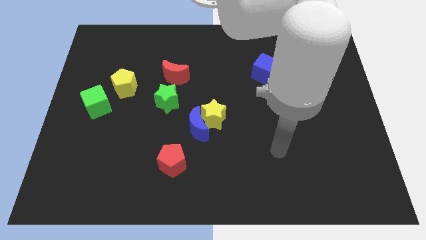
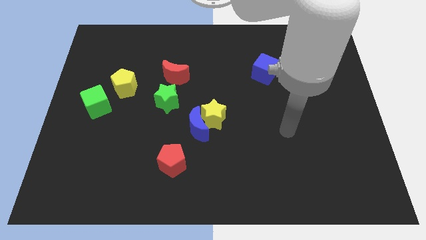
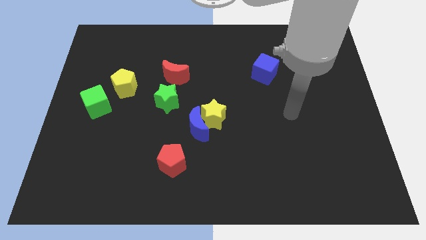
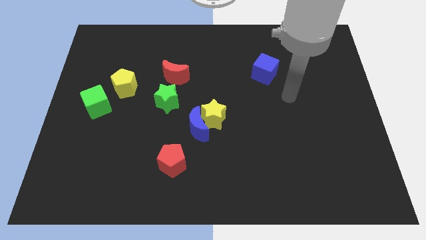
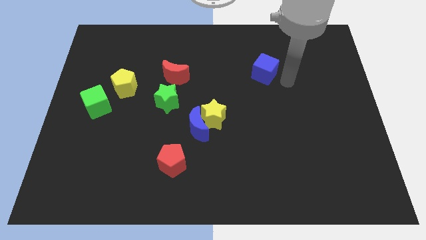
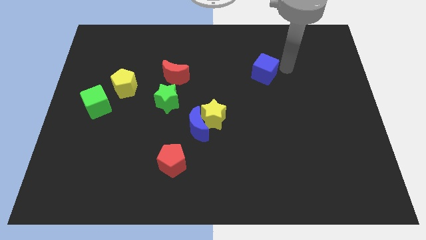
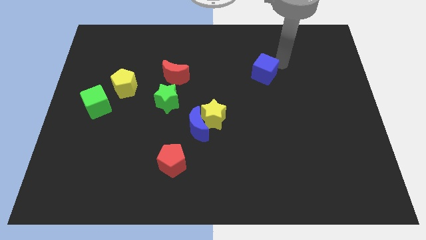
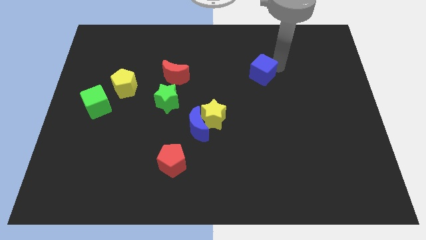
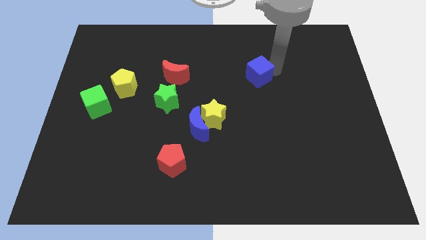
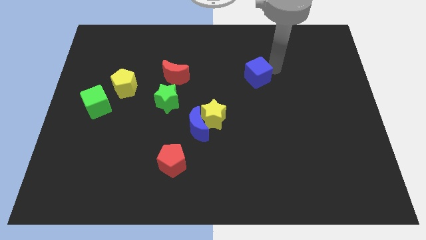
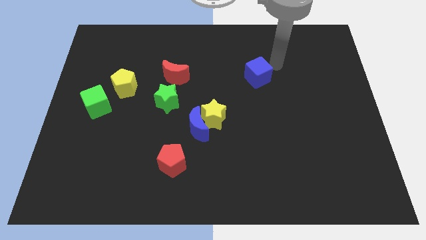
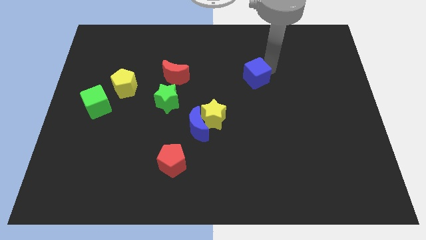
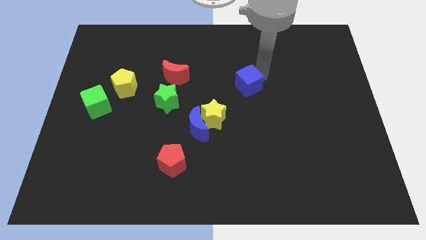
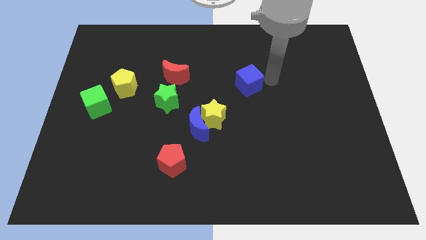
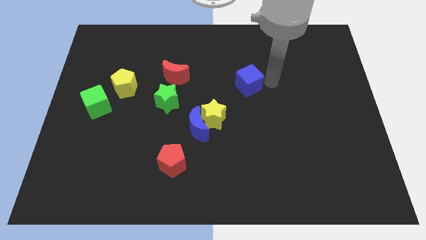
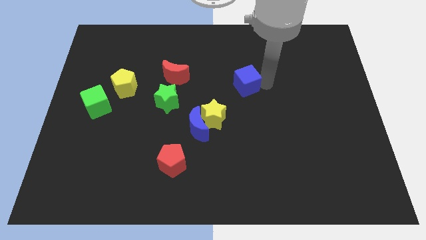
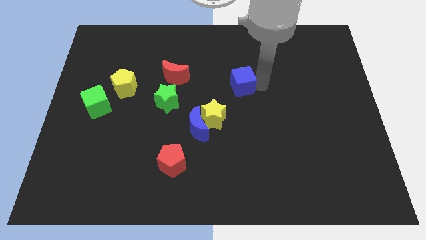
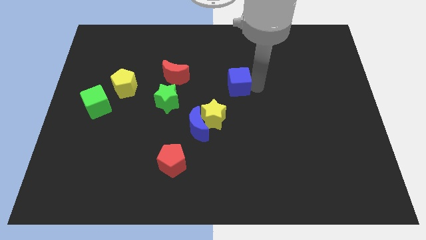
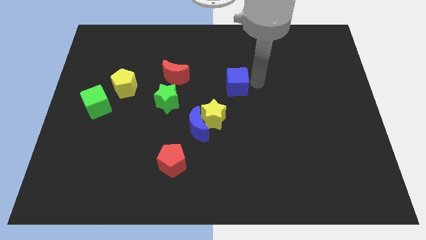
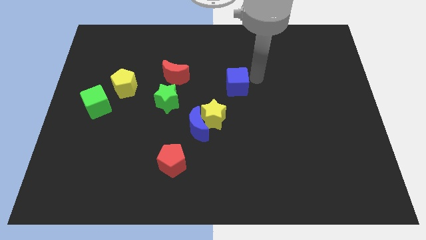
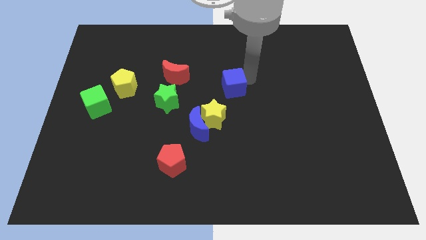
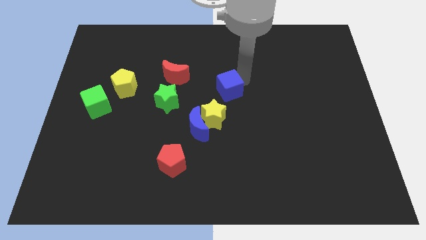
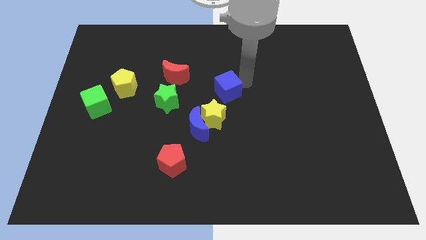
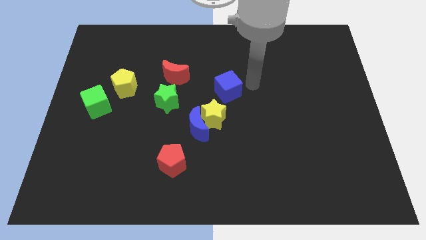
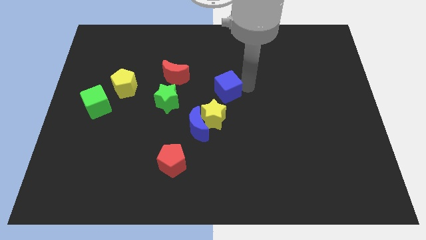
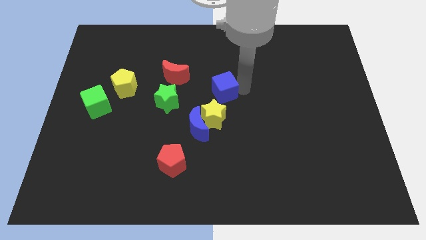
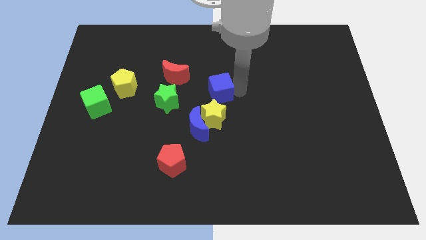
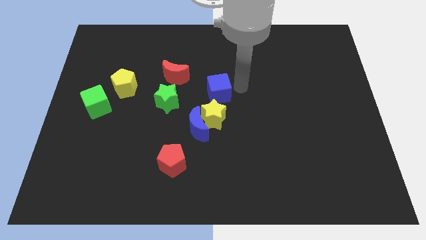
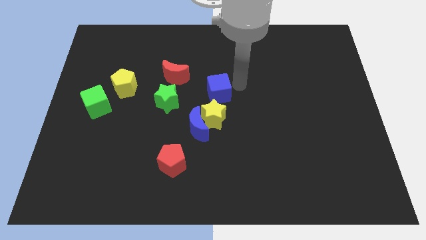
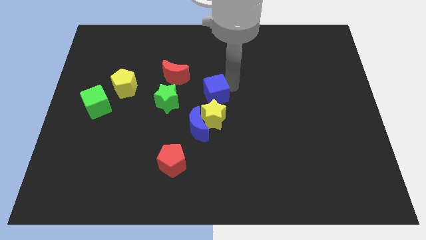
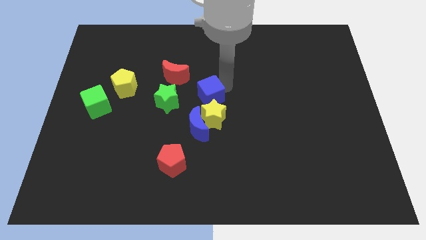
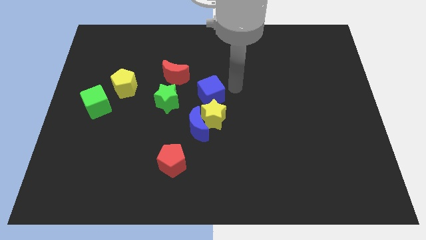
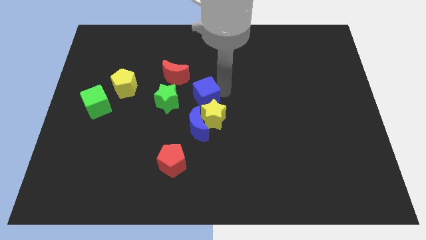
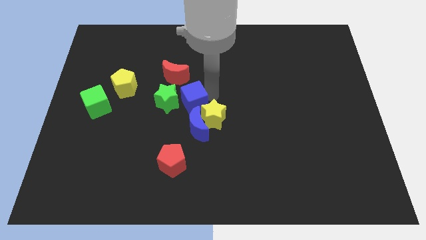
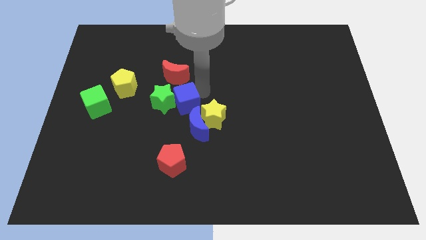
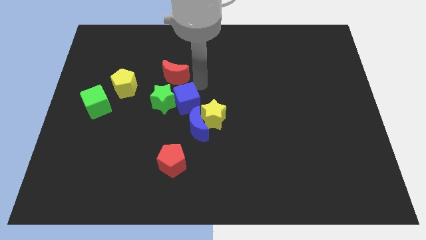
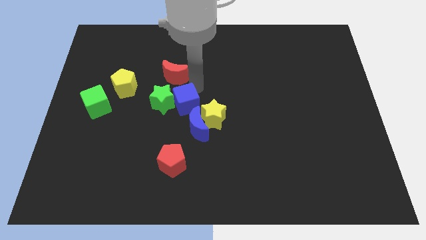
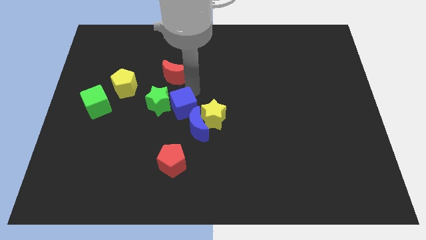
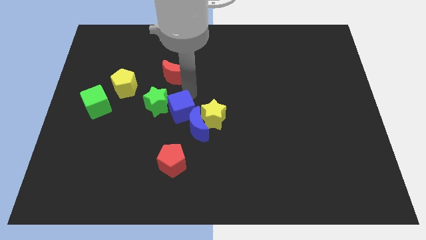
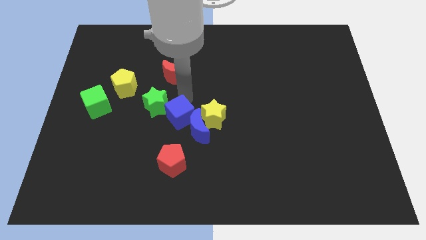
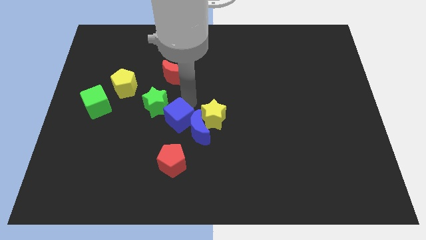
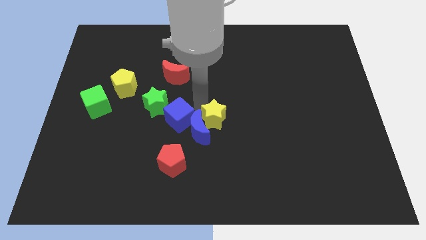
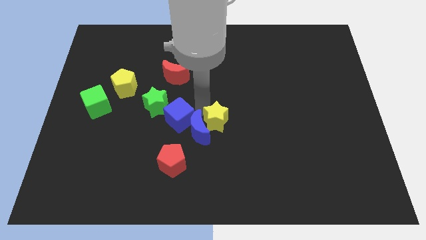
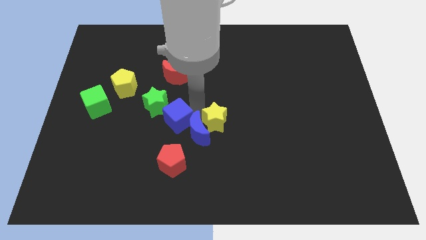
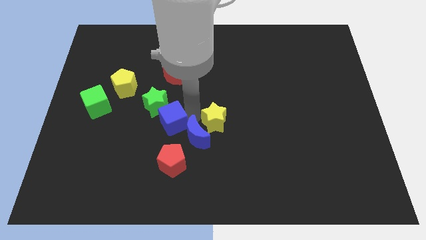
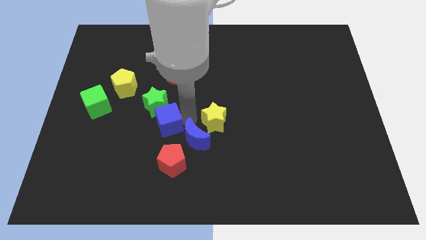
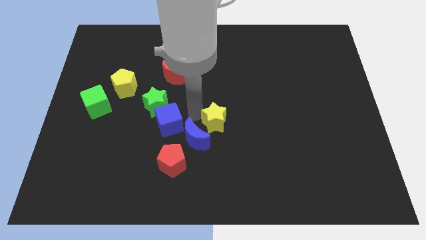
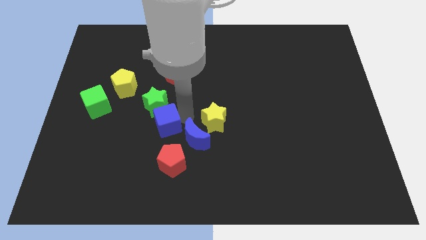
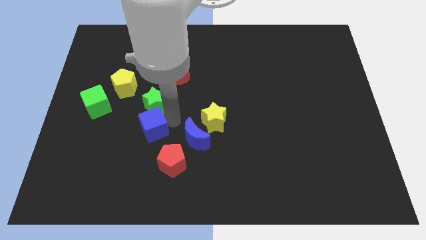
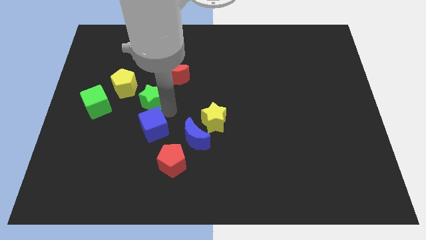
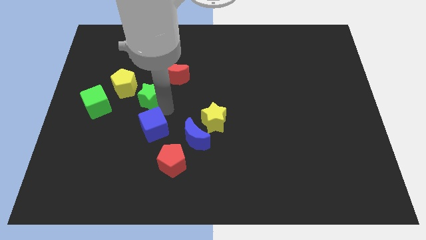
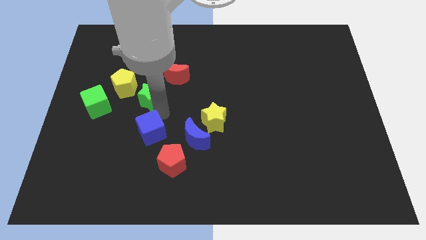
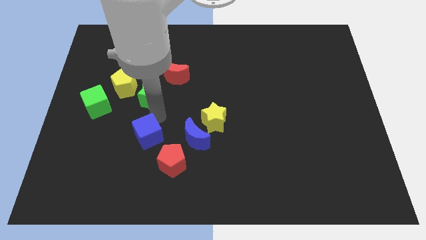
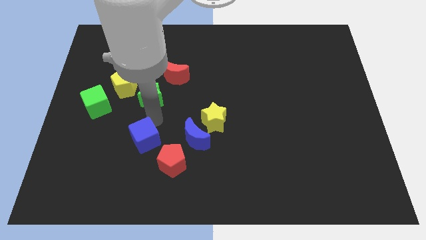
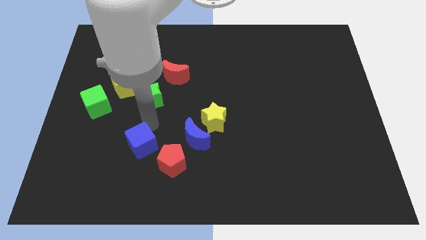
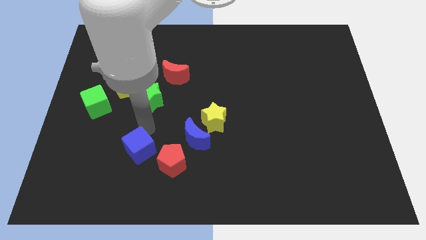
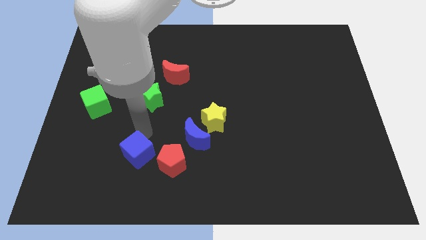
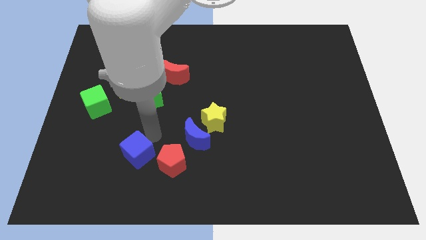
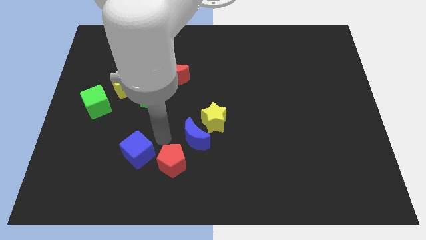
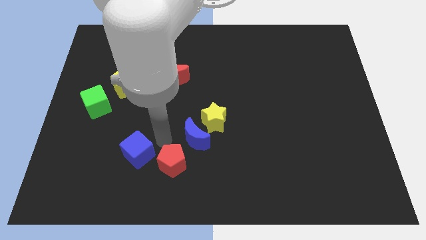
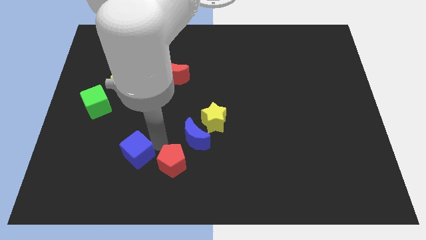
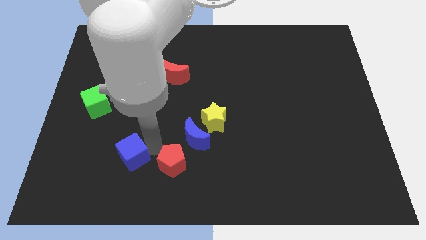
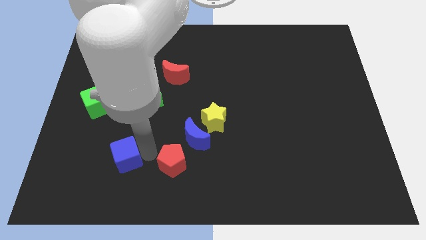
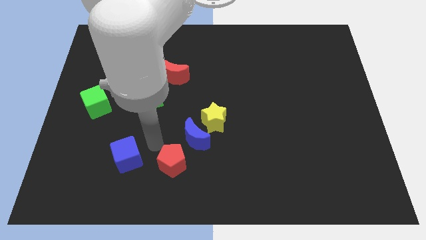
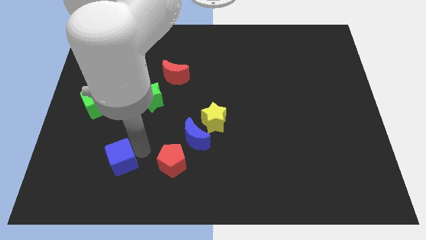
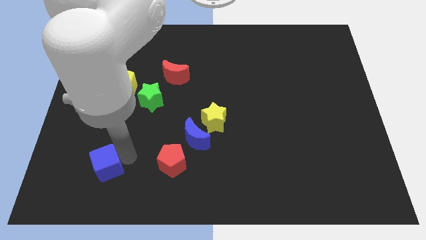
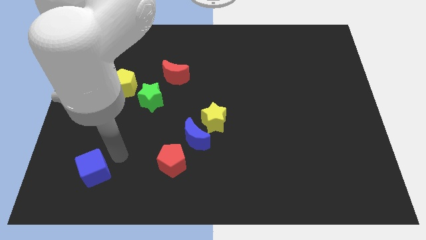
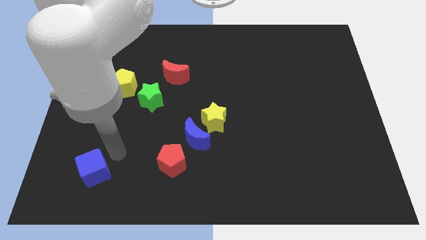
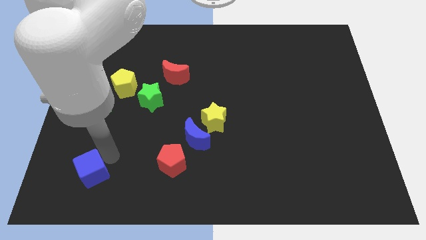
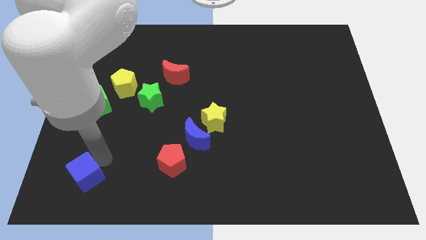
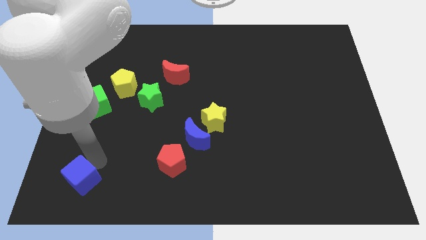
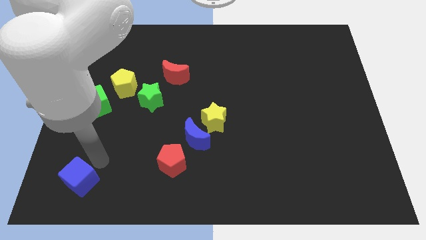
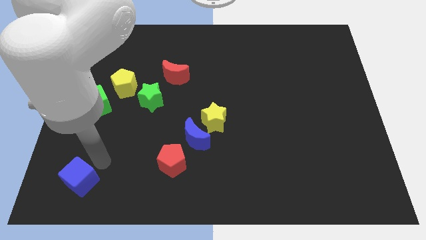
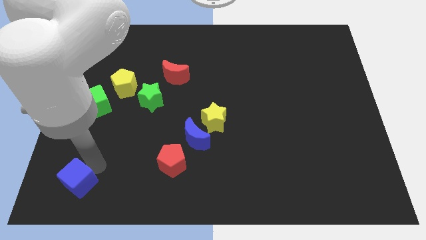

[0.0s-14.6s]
push the blue cube to the lower left corner

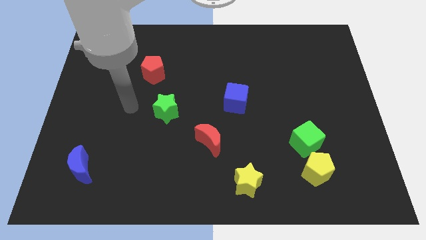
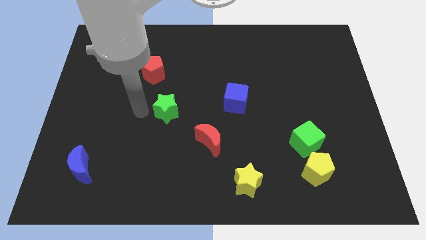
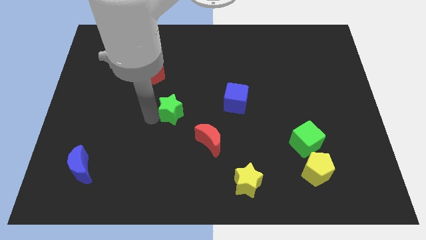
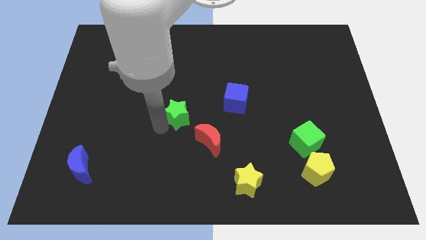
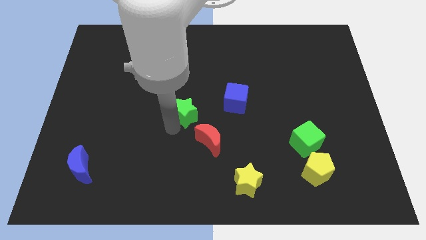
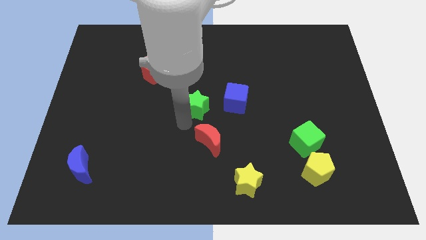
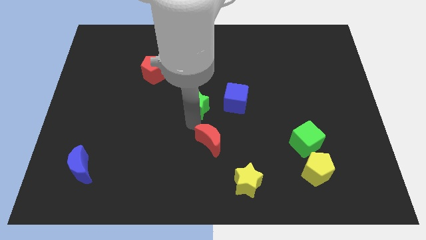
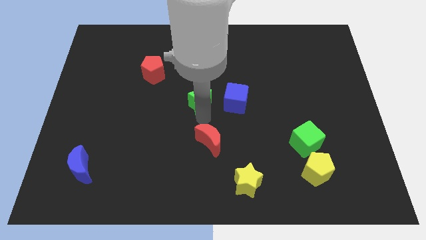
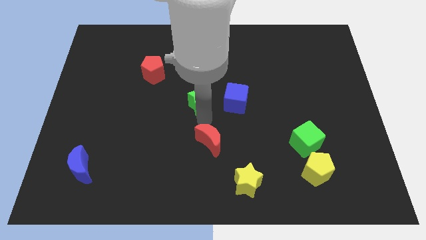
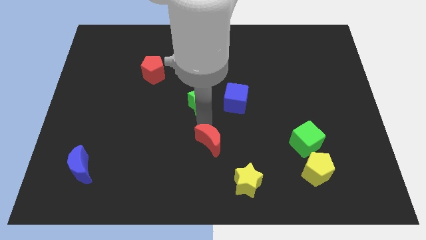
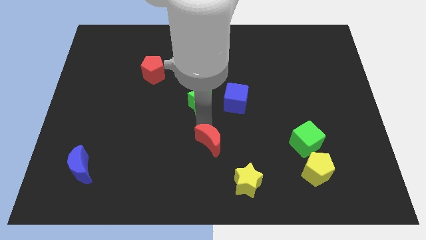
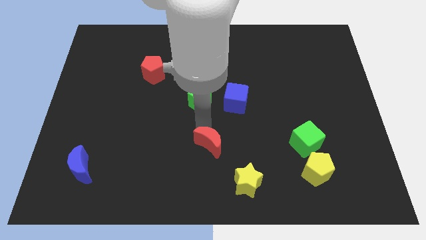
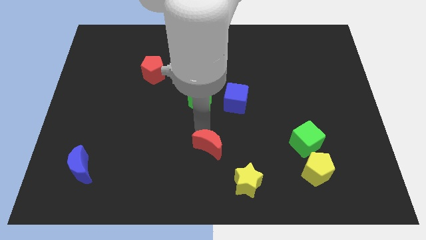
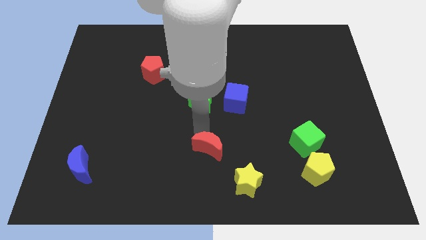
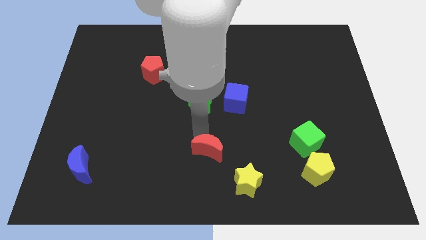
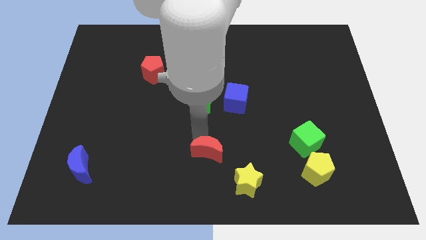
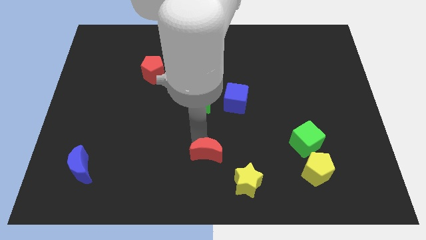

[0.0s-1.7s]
move the red moon to the bottom
